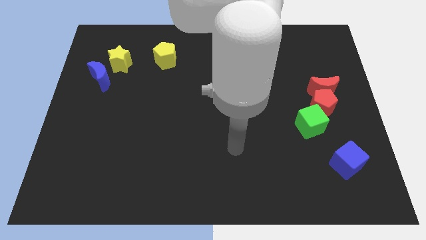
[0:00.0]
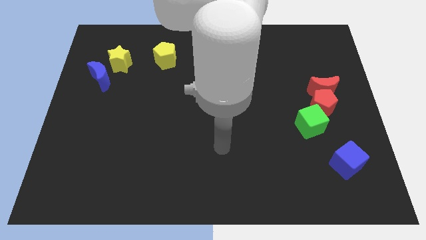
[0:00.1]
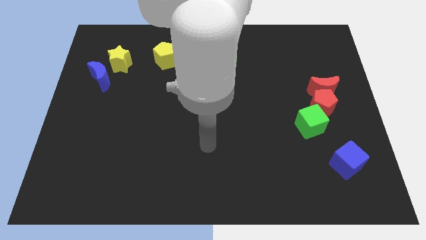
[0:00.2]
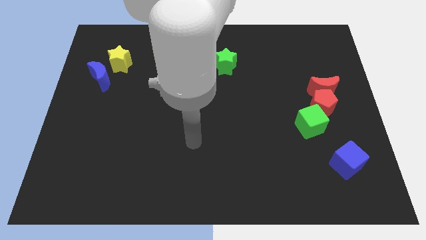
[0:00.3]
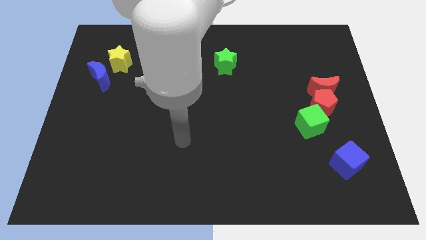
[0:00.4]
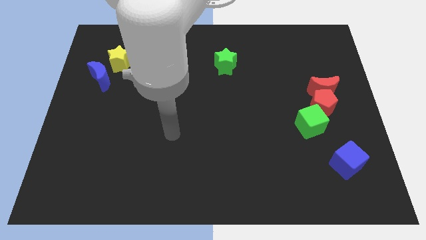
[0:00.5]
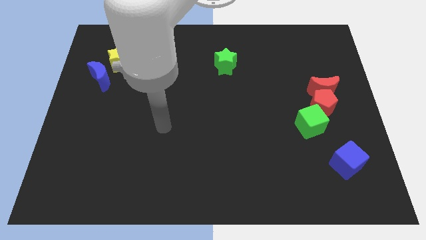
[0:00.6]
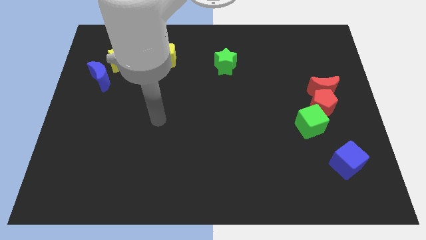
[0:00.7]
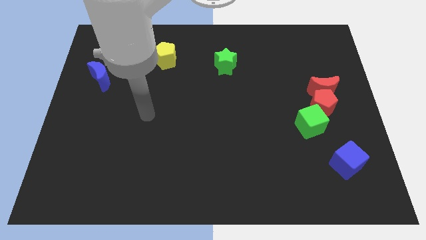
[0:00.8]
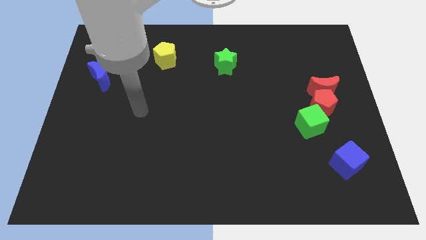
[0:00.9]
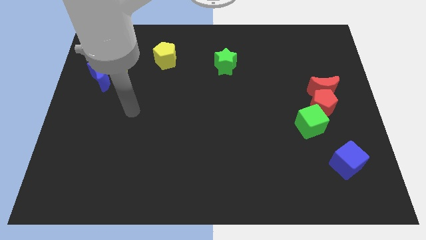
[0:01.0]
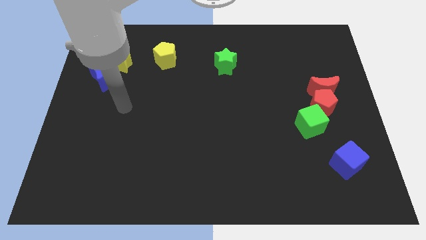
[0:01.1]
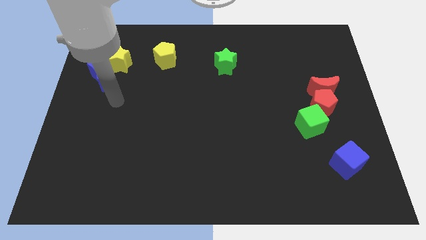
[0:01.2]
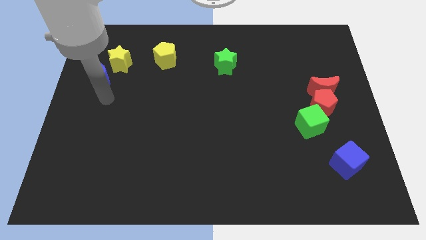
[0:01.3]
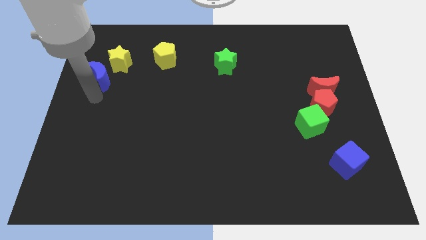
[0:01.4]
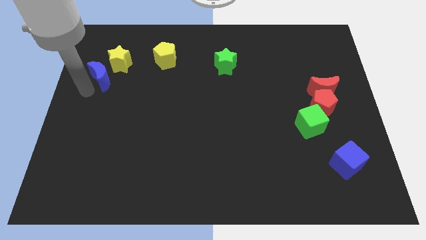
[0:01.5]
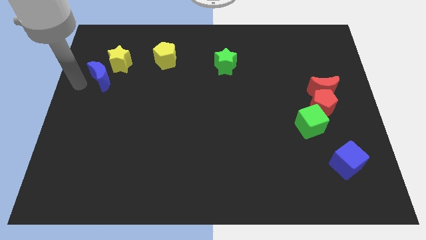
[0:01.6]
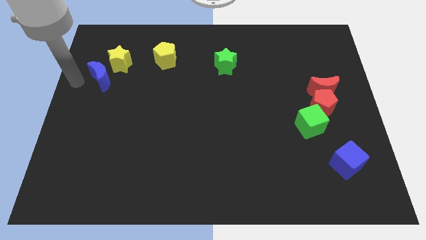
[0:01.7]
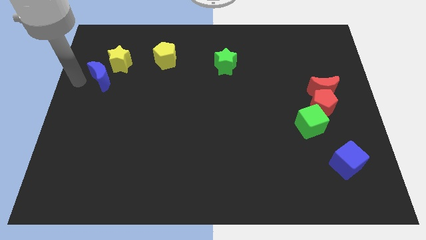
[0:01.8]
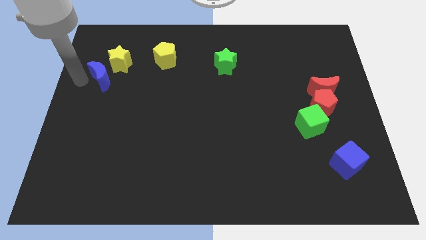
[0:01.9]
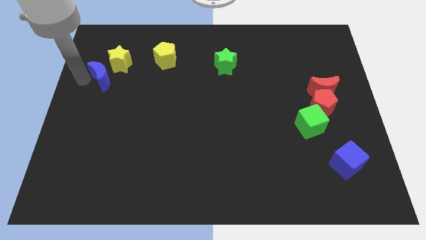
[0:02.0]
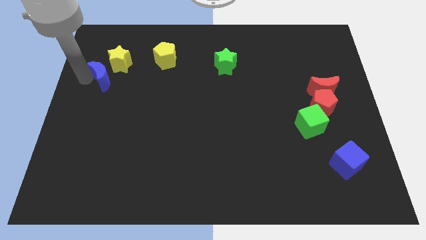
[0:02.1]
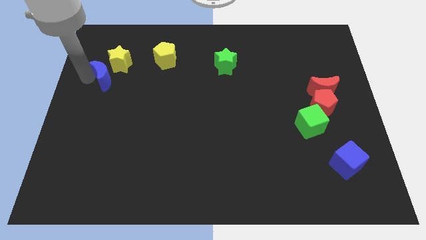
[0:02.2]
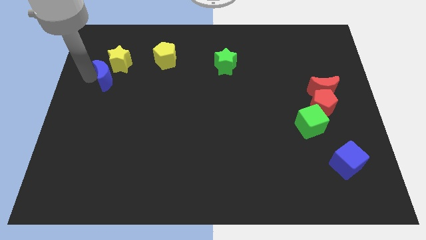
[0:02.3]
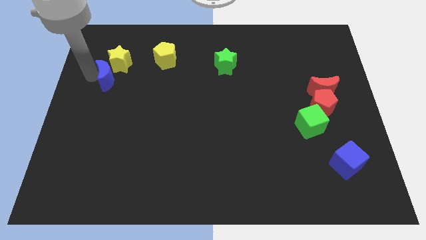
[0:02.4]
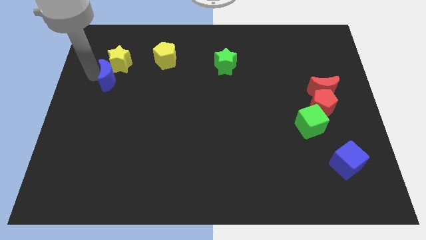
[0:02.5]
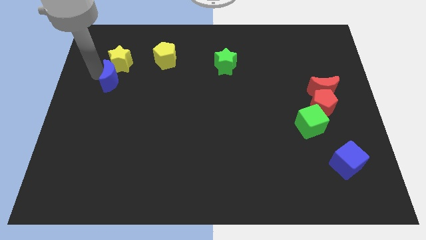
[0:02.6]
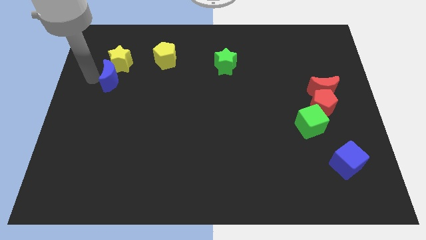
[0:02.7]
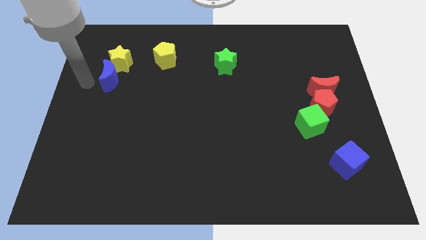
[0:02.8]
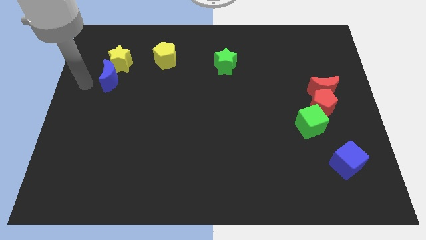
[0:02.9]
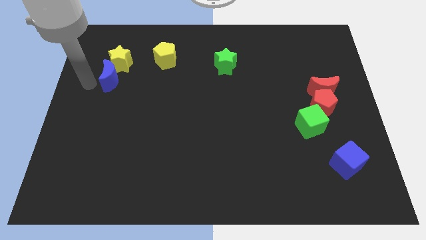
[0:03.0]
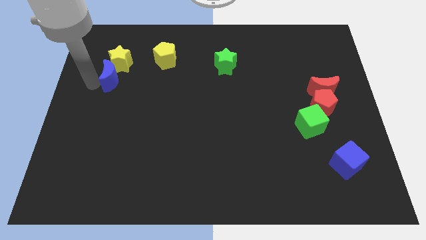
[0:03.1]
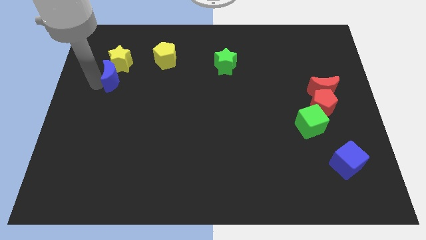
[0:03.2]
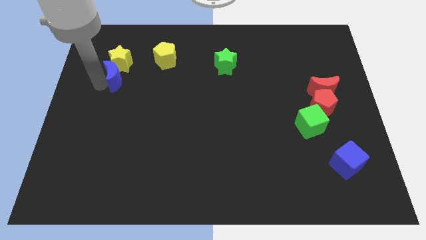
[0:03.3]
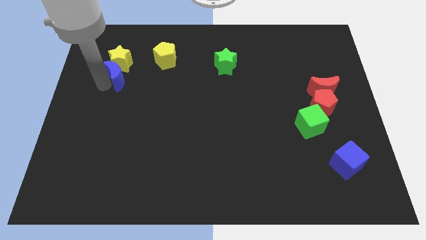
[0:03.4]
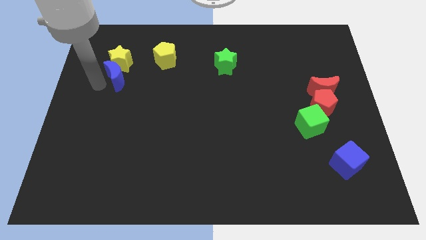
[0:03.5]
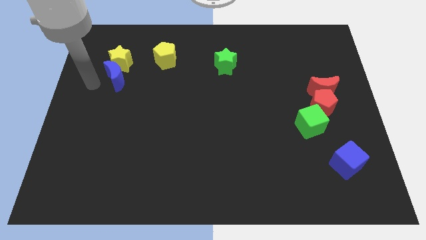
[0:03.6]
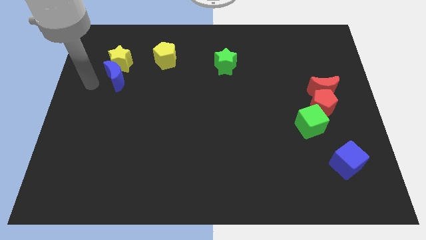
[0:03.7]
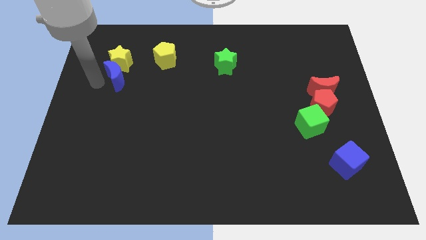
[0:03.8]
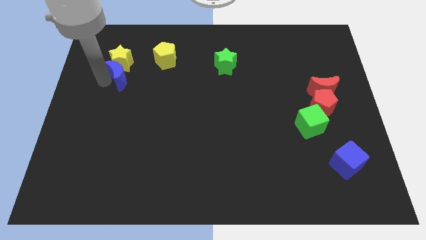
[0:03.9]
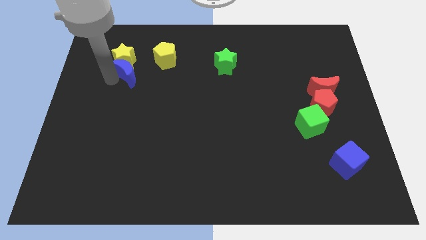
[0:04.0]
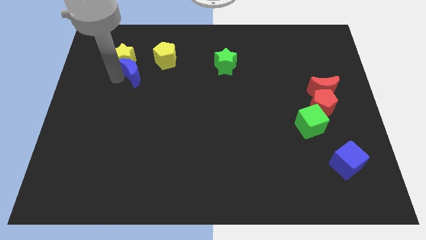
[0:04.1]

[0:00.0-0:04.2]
slightly slide the blue moon to the right

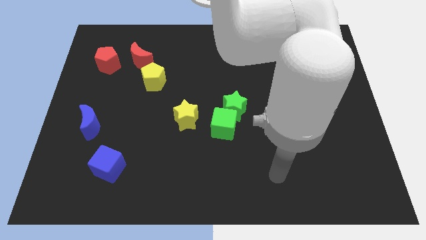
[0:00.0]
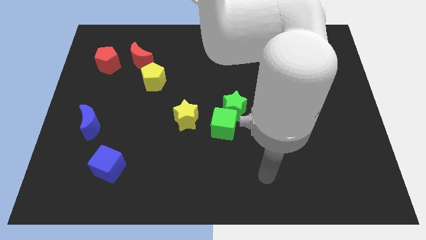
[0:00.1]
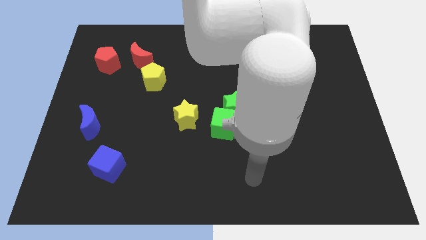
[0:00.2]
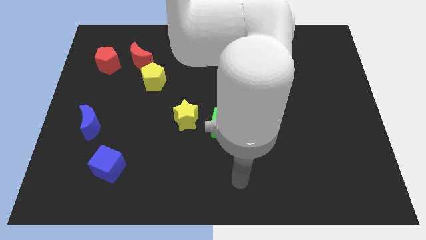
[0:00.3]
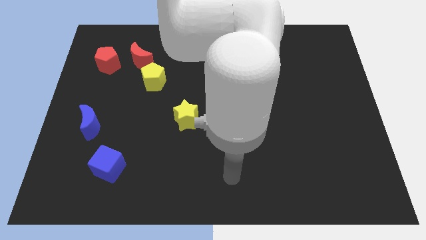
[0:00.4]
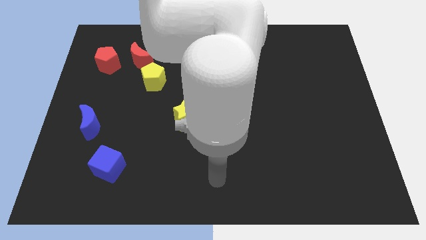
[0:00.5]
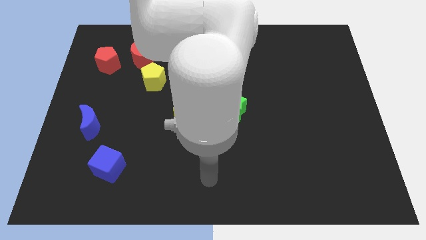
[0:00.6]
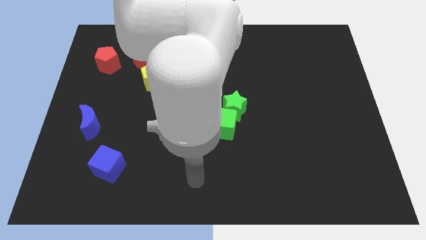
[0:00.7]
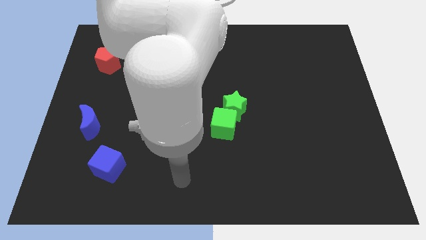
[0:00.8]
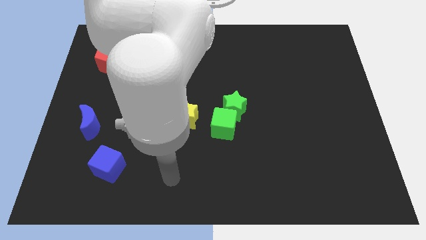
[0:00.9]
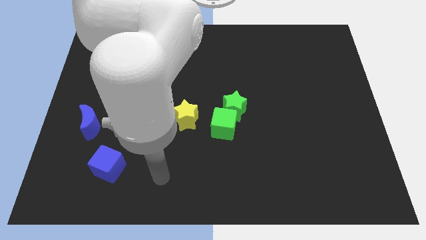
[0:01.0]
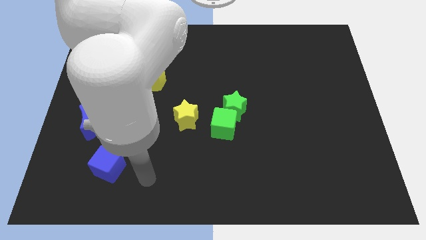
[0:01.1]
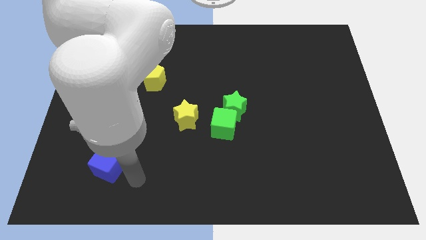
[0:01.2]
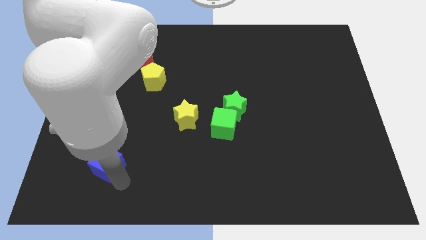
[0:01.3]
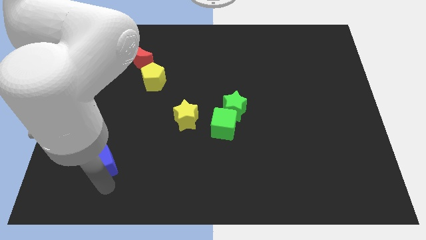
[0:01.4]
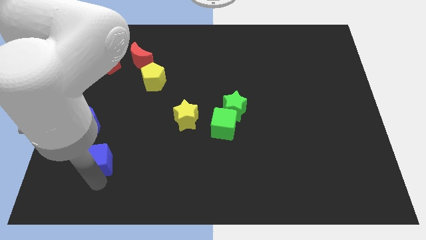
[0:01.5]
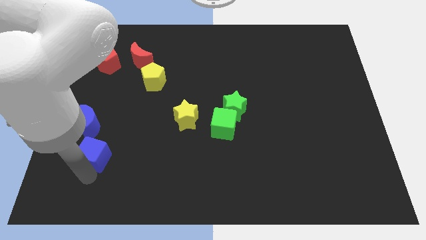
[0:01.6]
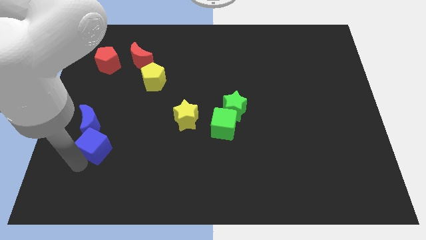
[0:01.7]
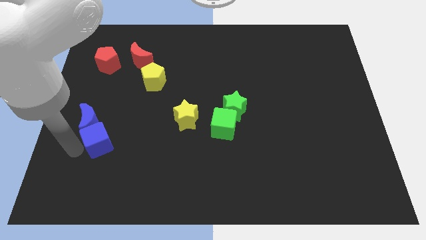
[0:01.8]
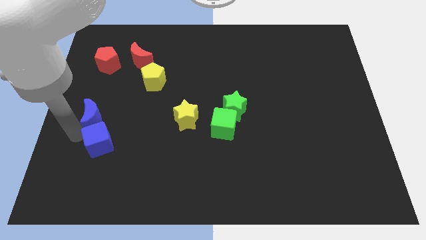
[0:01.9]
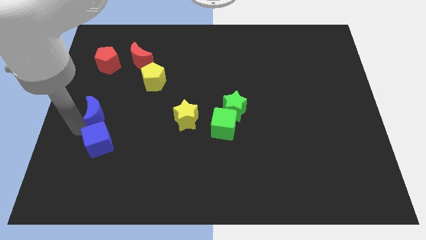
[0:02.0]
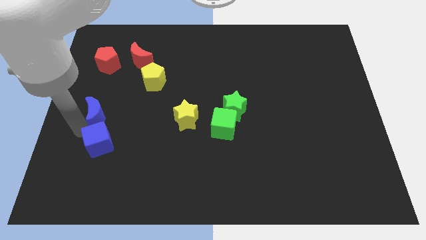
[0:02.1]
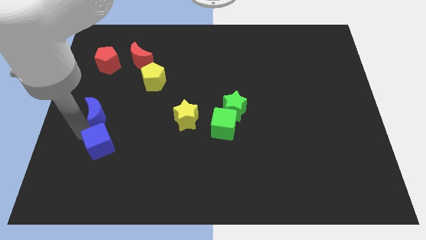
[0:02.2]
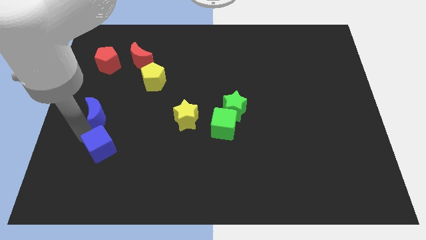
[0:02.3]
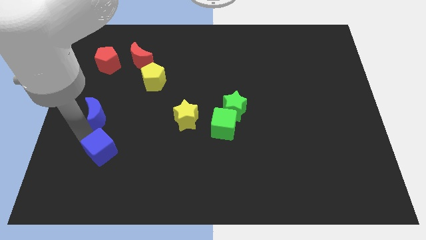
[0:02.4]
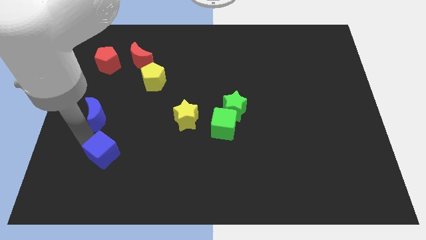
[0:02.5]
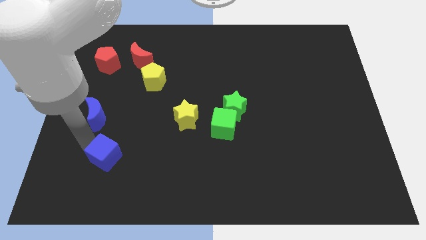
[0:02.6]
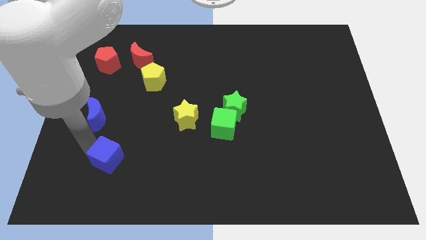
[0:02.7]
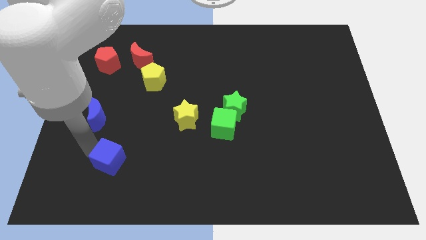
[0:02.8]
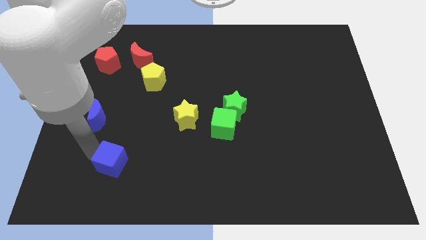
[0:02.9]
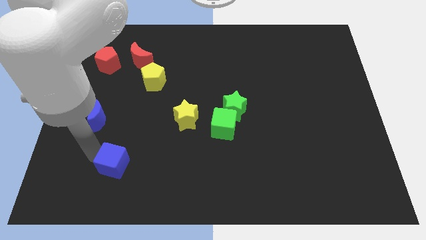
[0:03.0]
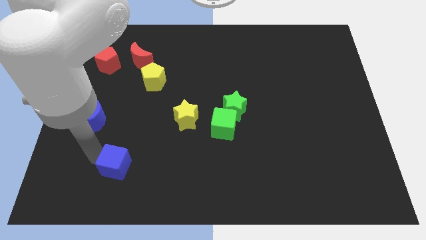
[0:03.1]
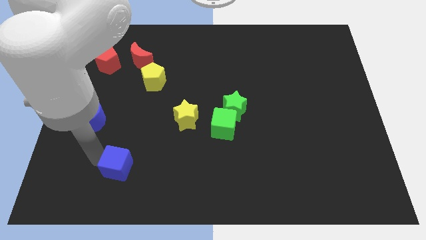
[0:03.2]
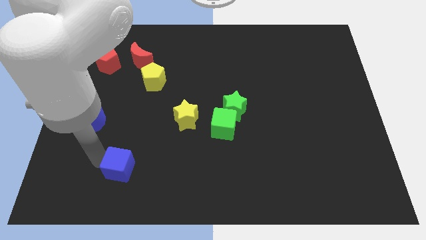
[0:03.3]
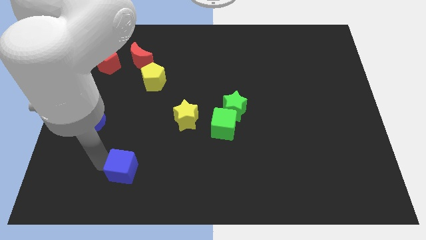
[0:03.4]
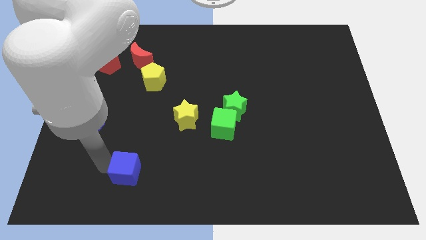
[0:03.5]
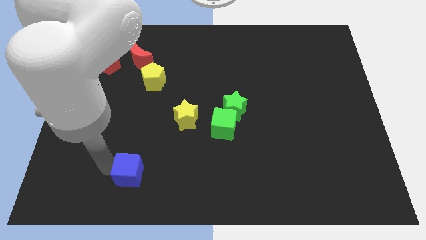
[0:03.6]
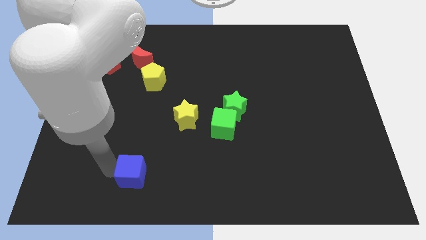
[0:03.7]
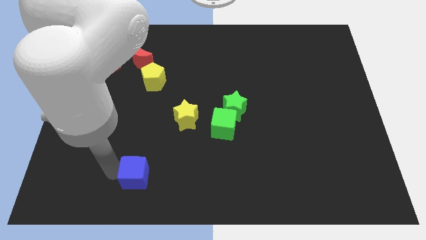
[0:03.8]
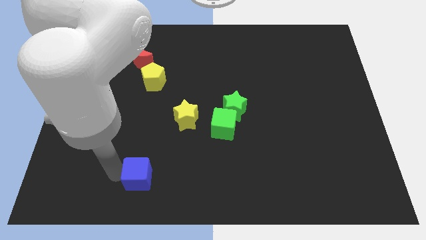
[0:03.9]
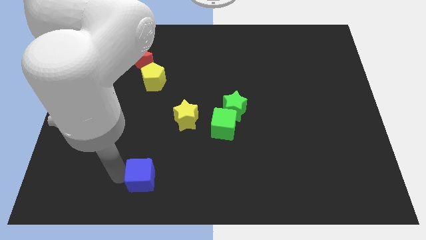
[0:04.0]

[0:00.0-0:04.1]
move the blue cube right a bit
